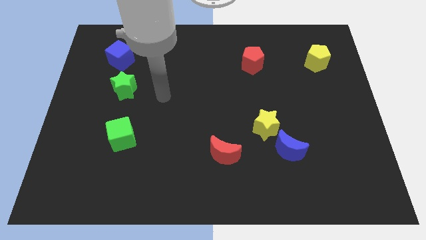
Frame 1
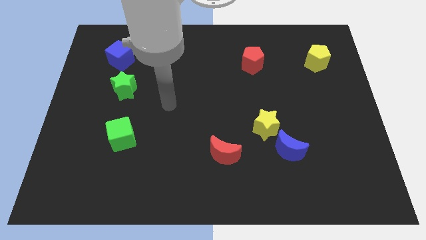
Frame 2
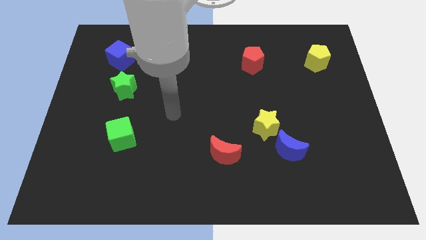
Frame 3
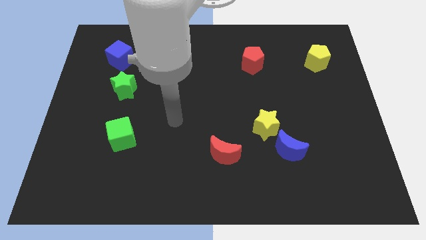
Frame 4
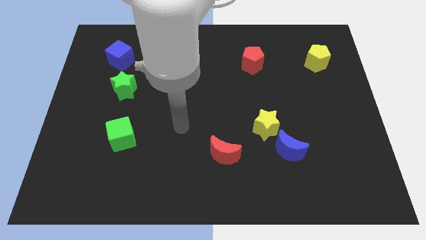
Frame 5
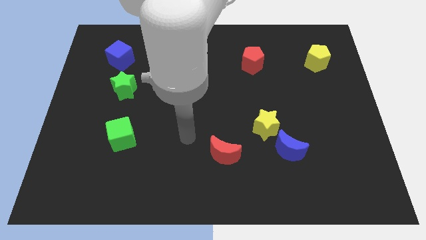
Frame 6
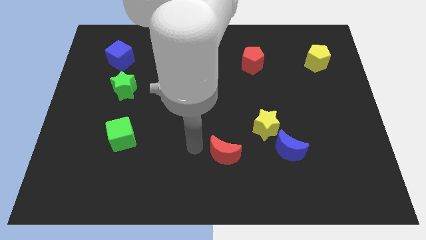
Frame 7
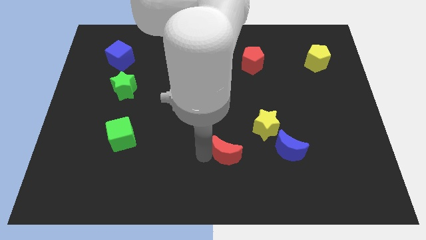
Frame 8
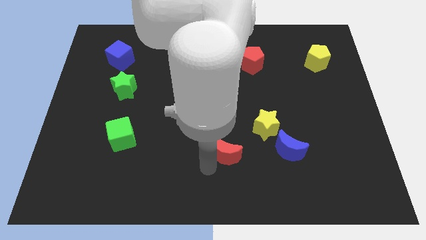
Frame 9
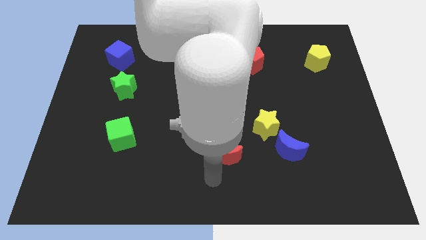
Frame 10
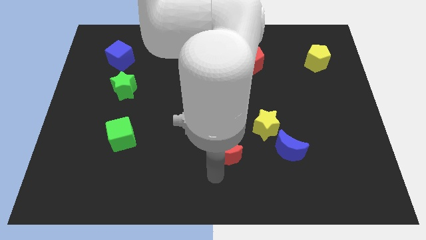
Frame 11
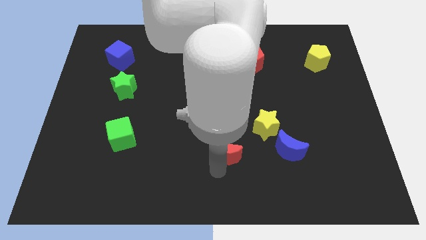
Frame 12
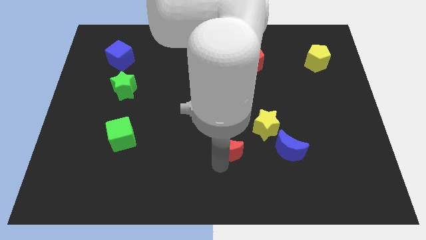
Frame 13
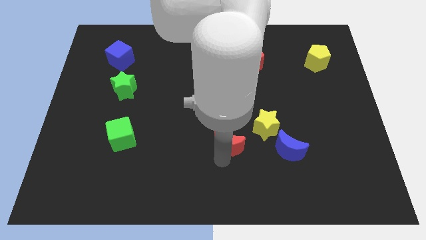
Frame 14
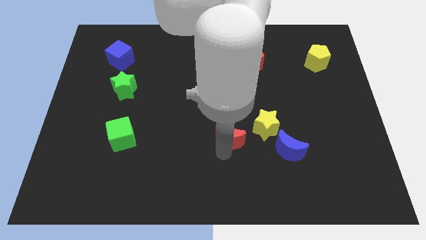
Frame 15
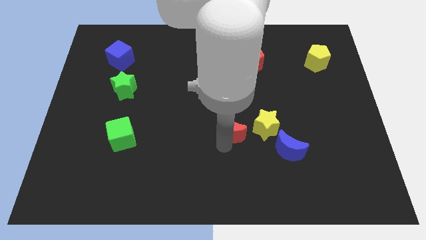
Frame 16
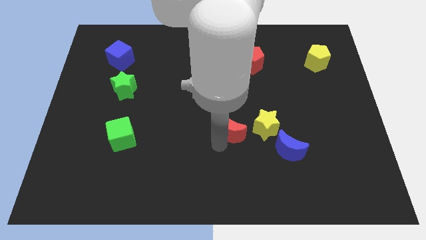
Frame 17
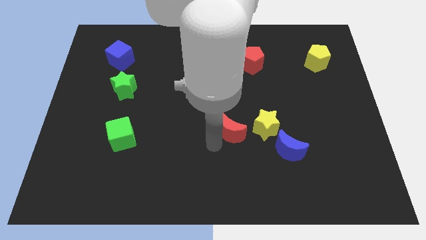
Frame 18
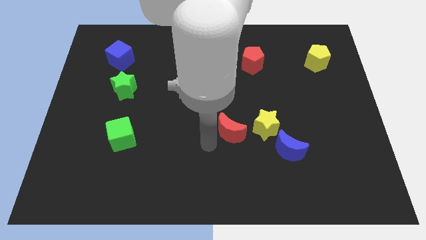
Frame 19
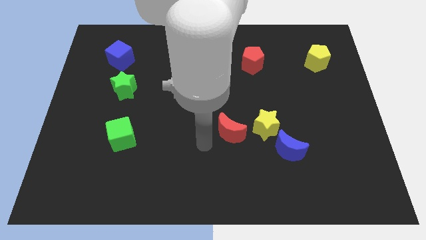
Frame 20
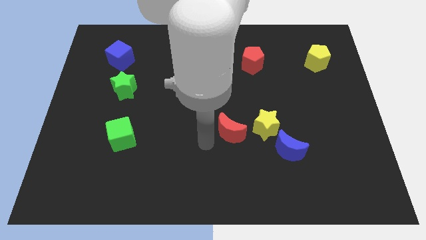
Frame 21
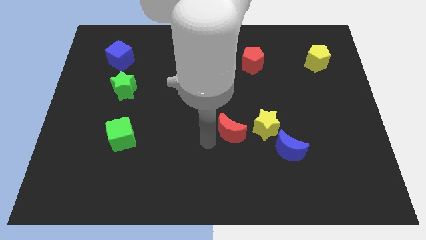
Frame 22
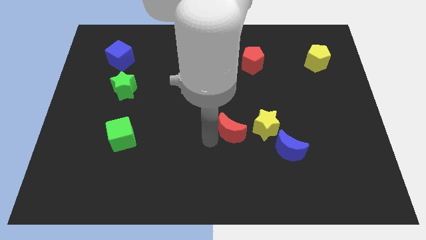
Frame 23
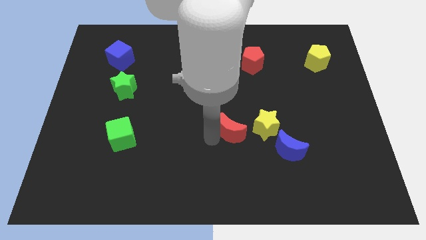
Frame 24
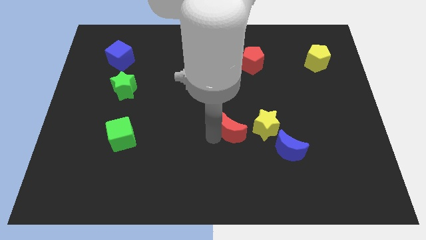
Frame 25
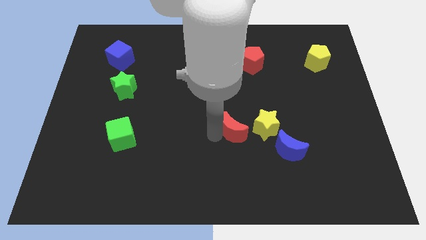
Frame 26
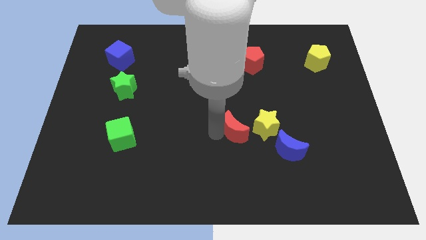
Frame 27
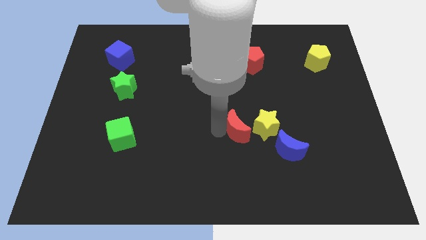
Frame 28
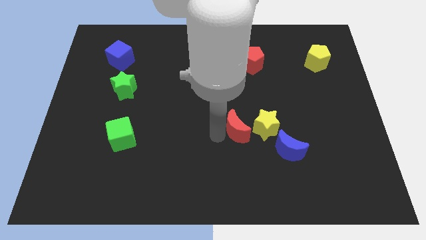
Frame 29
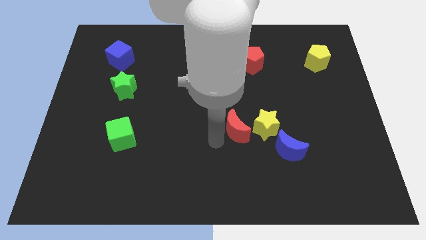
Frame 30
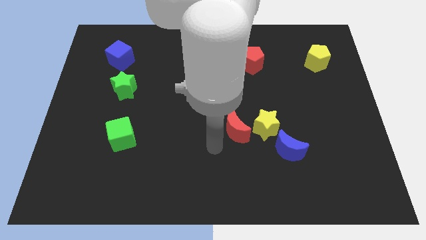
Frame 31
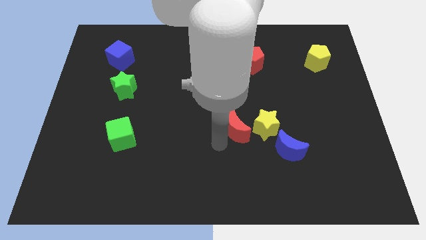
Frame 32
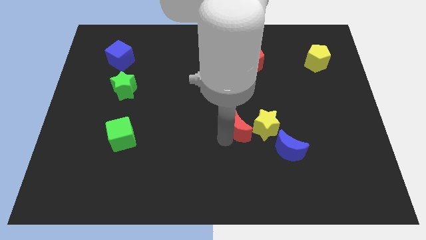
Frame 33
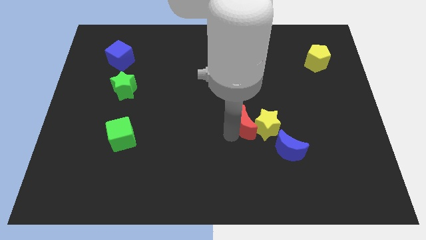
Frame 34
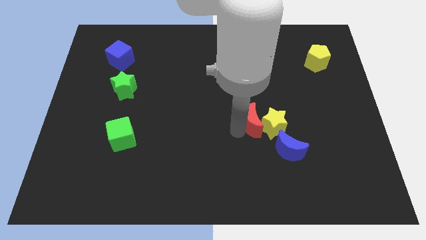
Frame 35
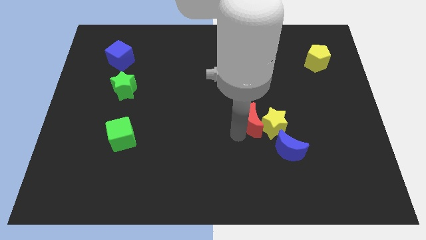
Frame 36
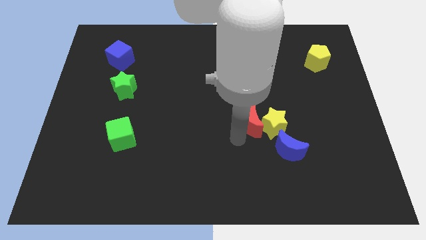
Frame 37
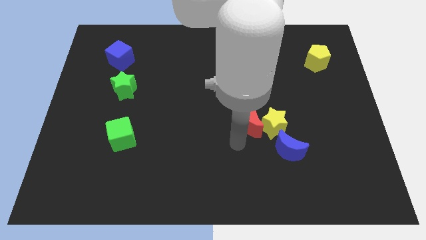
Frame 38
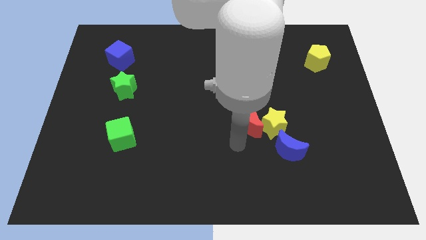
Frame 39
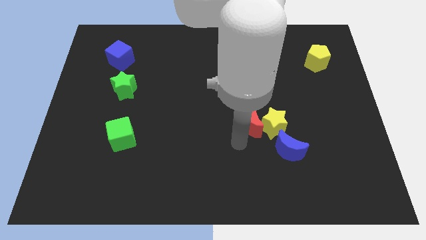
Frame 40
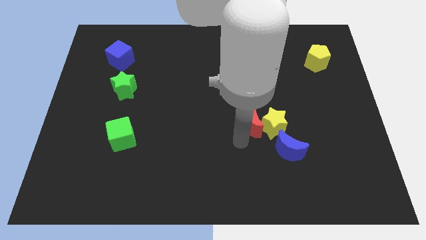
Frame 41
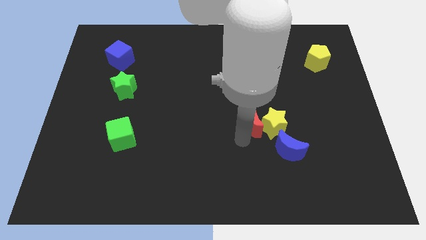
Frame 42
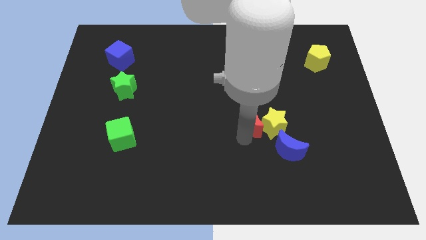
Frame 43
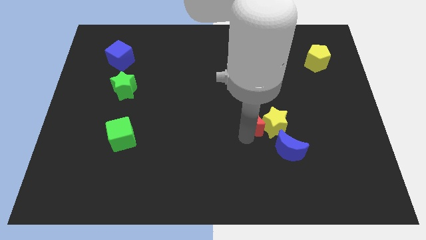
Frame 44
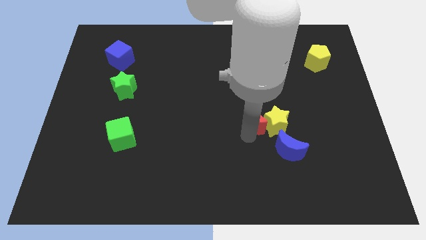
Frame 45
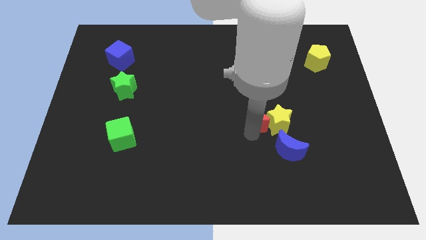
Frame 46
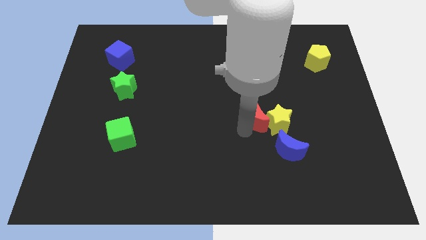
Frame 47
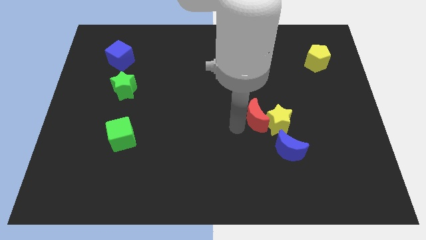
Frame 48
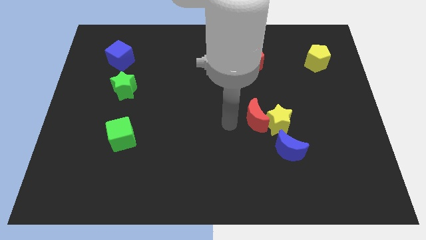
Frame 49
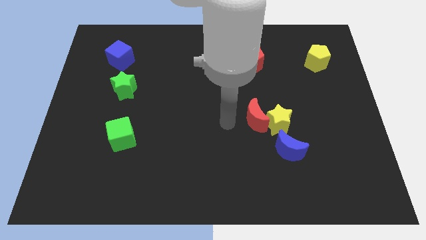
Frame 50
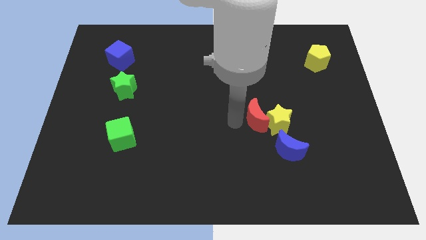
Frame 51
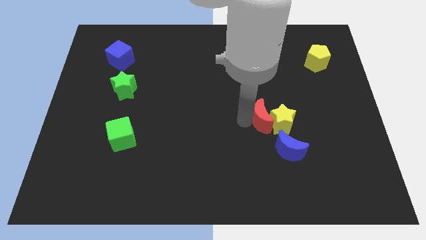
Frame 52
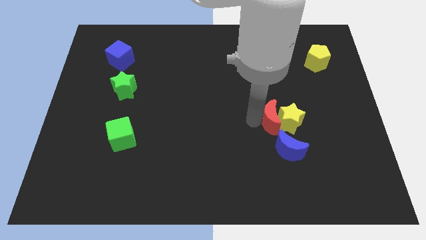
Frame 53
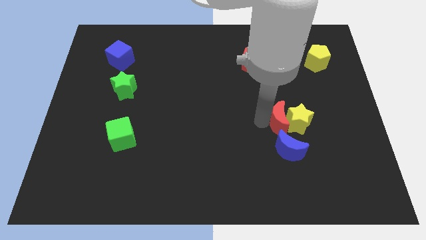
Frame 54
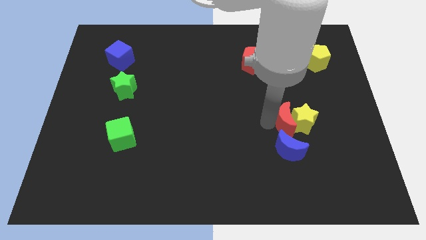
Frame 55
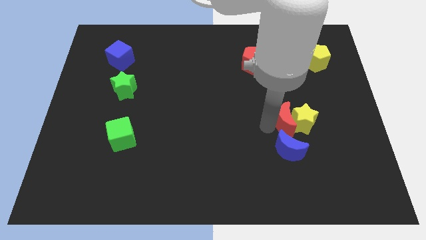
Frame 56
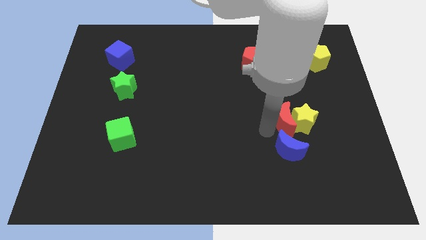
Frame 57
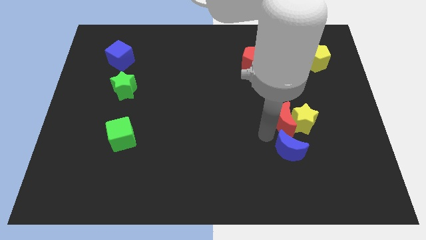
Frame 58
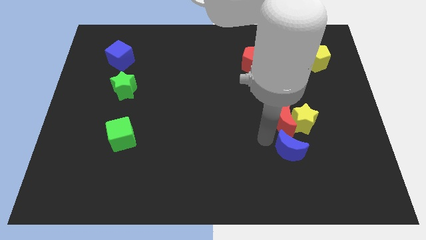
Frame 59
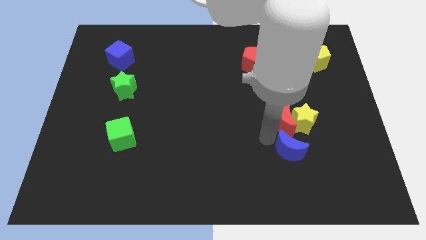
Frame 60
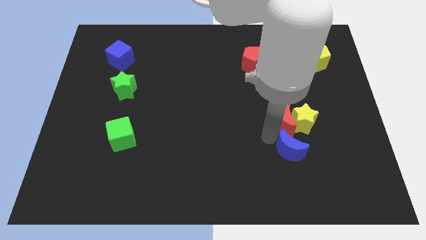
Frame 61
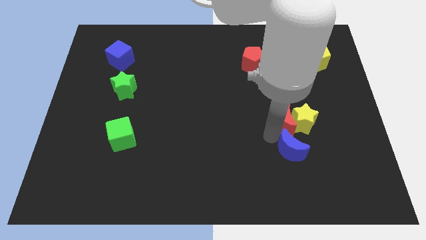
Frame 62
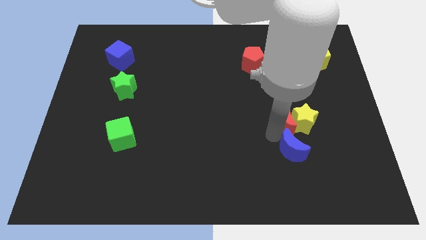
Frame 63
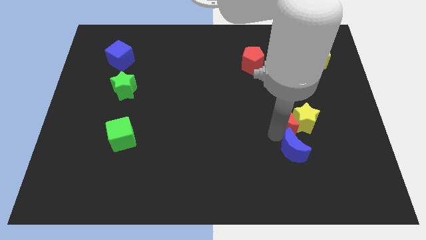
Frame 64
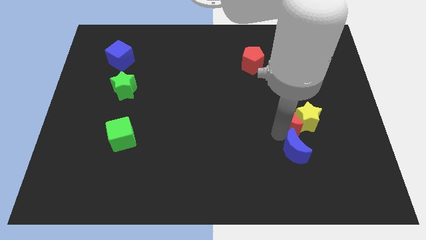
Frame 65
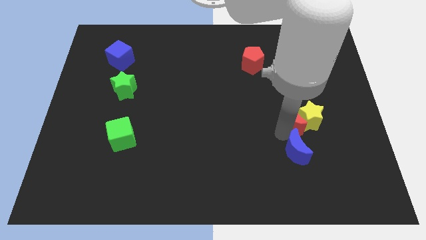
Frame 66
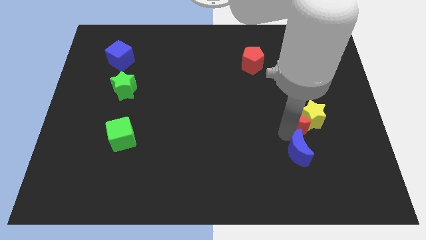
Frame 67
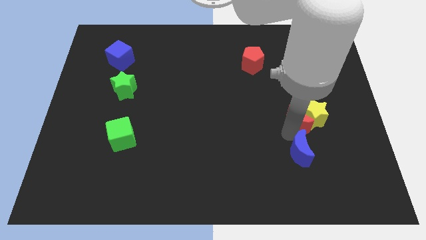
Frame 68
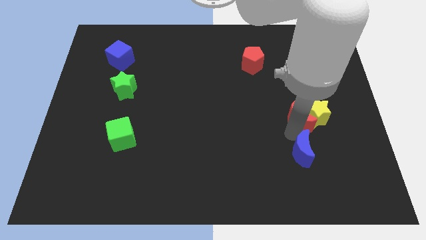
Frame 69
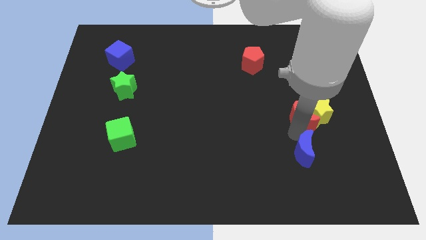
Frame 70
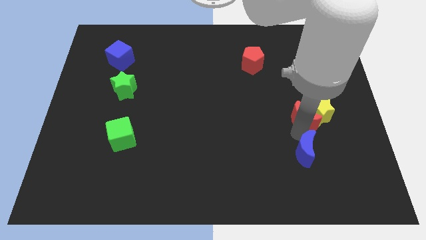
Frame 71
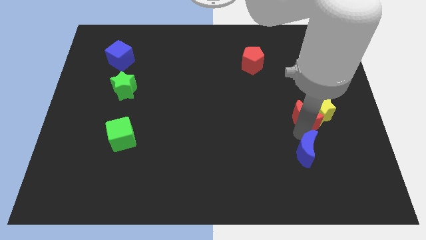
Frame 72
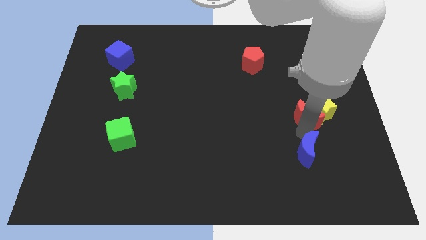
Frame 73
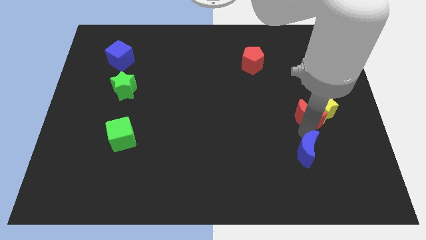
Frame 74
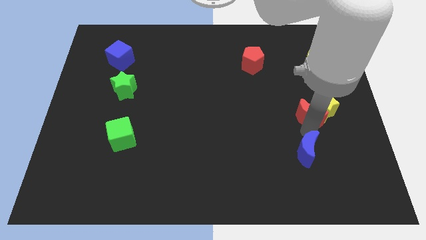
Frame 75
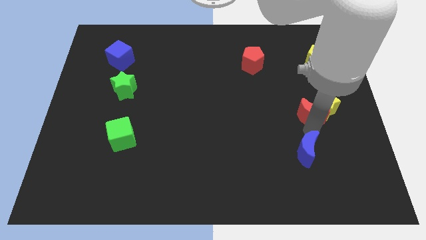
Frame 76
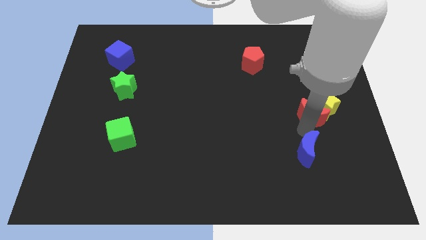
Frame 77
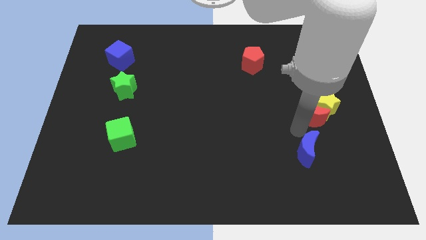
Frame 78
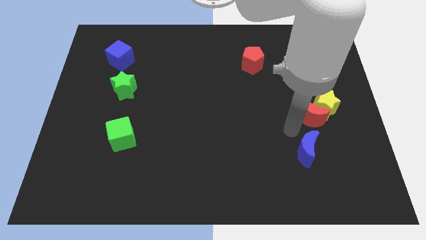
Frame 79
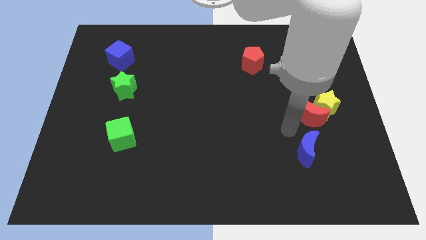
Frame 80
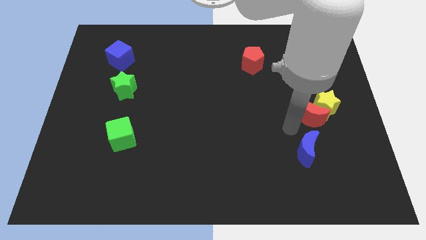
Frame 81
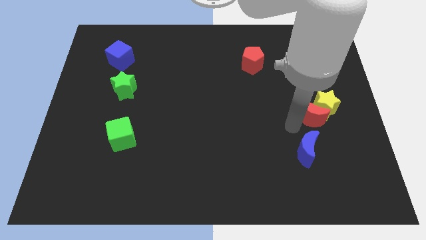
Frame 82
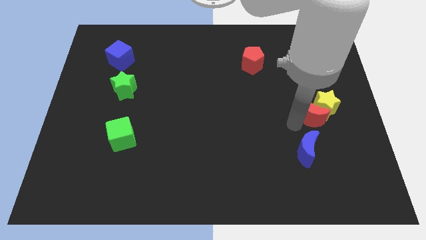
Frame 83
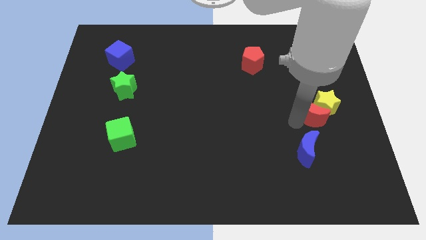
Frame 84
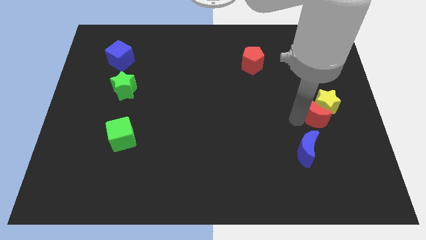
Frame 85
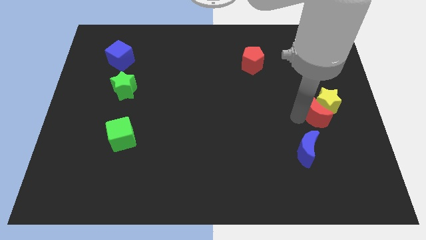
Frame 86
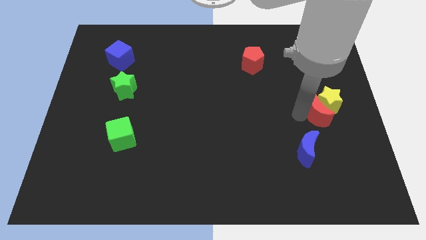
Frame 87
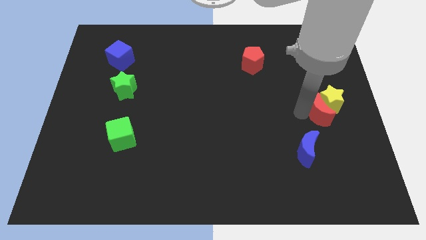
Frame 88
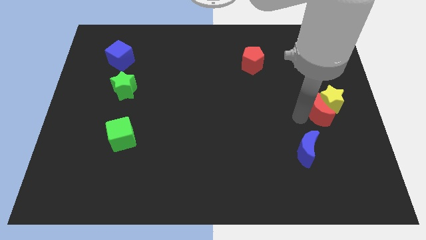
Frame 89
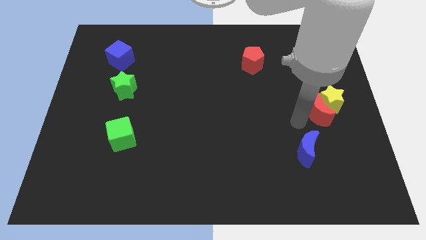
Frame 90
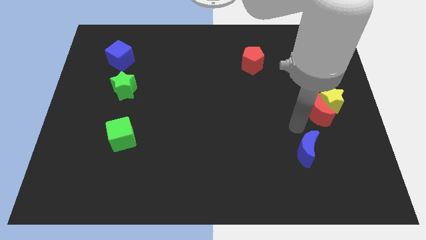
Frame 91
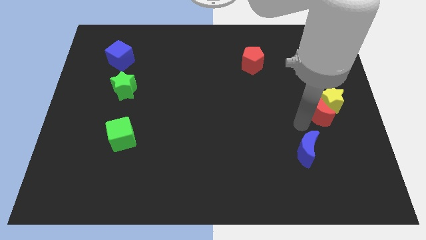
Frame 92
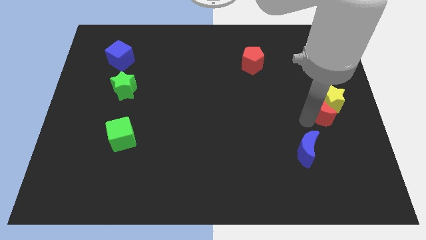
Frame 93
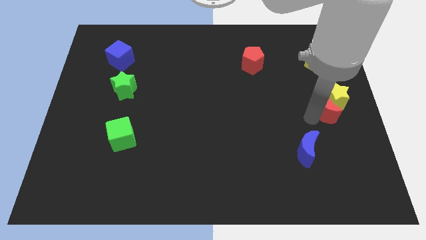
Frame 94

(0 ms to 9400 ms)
push the red moon to the right side of the board
